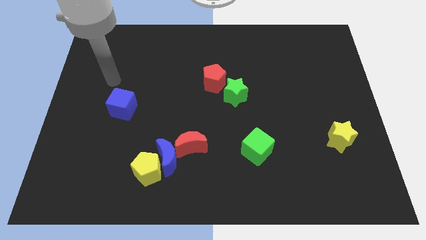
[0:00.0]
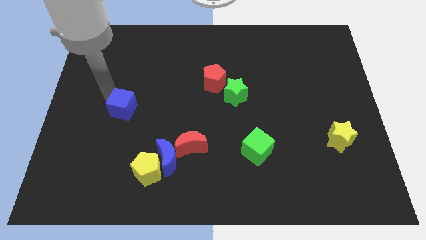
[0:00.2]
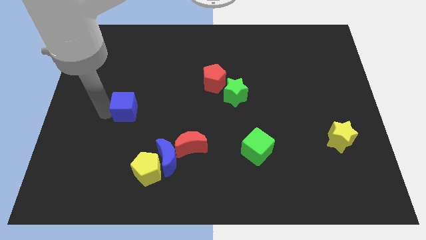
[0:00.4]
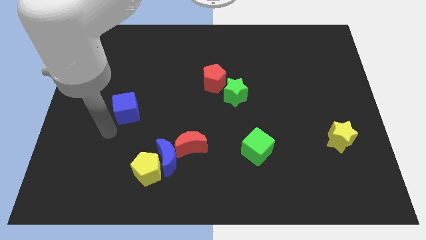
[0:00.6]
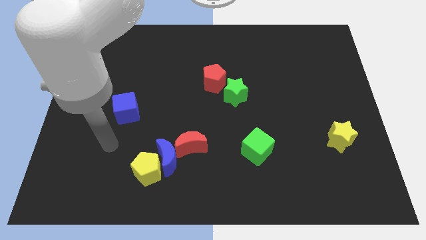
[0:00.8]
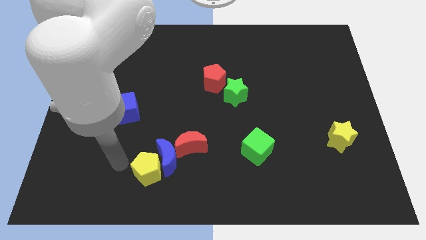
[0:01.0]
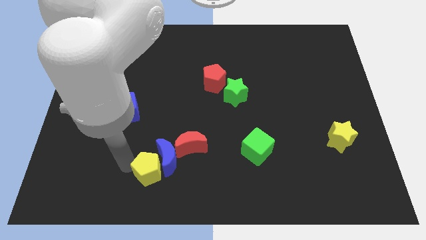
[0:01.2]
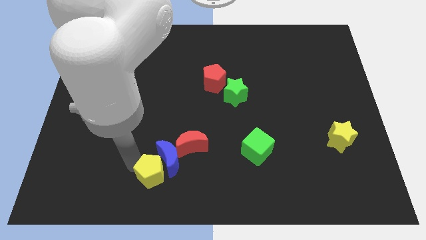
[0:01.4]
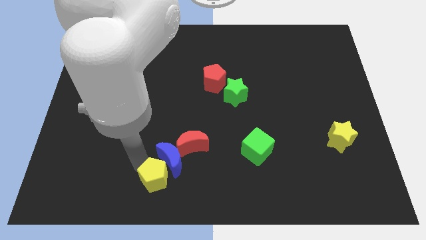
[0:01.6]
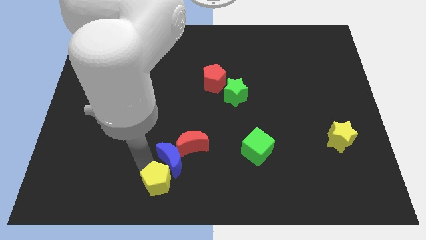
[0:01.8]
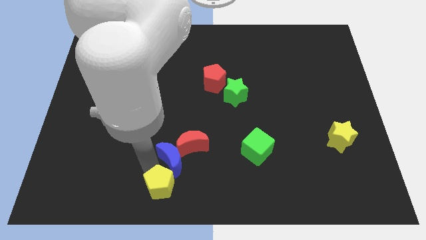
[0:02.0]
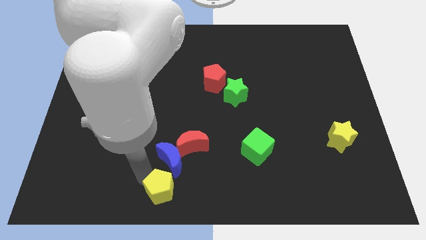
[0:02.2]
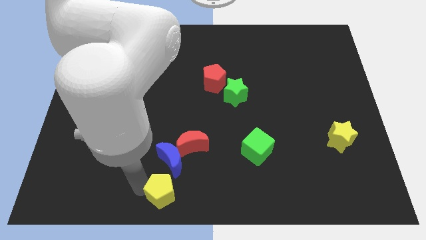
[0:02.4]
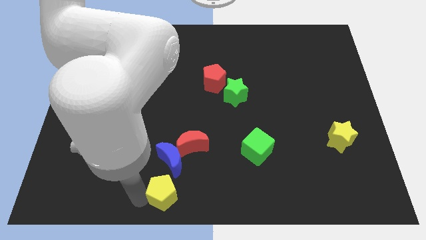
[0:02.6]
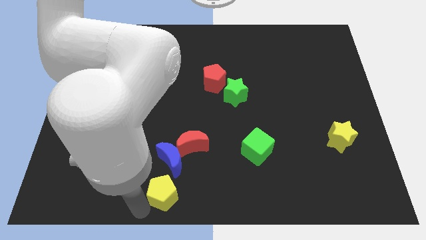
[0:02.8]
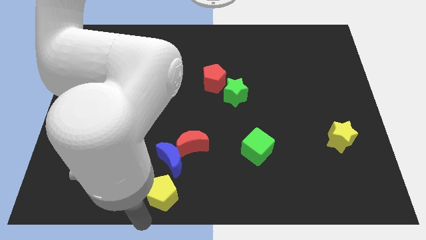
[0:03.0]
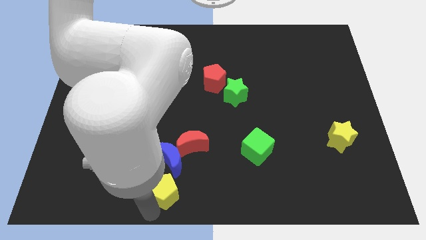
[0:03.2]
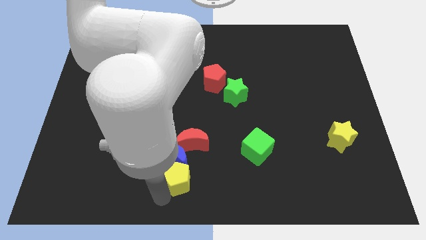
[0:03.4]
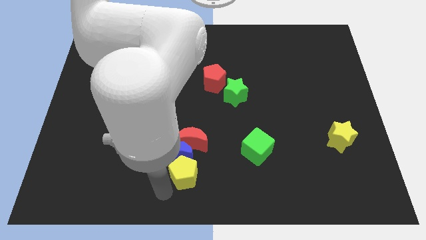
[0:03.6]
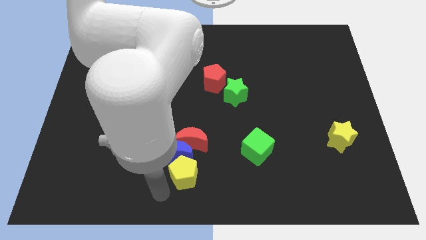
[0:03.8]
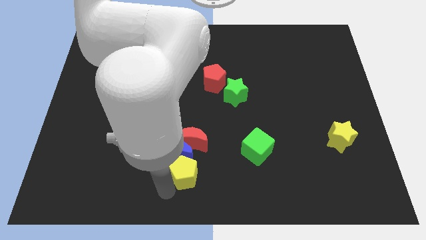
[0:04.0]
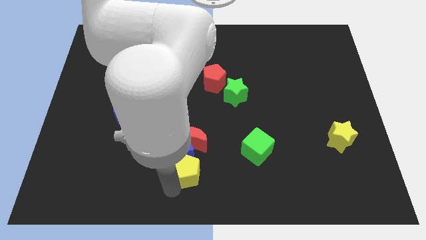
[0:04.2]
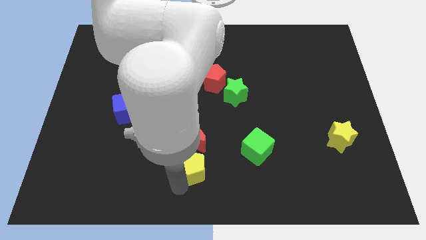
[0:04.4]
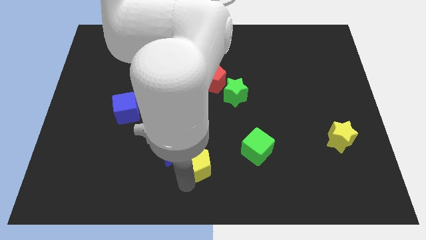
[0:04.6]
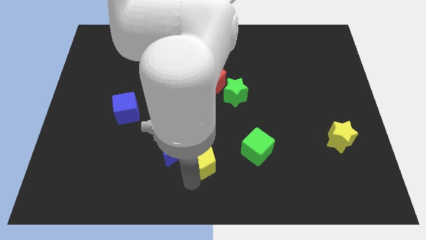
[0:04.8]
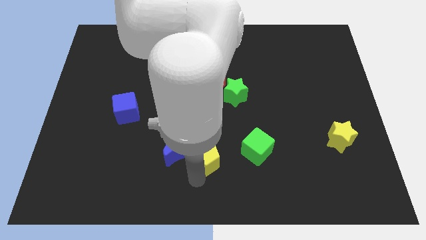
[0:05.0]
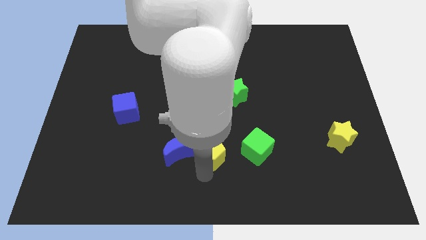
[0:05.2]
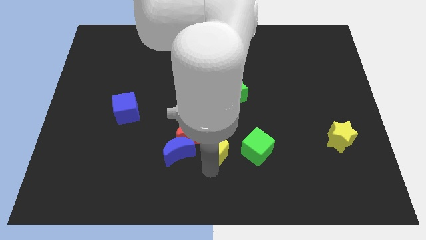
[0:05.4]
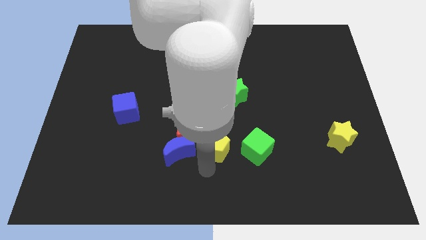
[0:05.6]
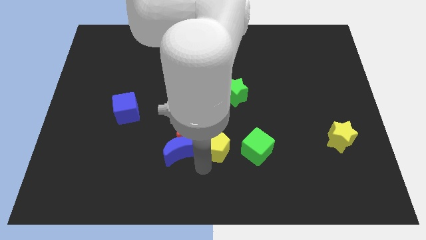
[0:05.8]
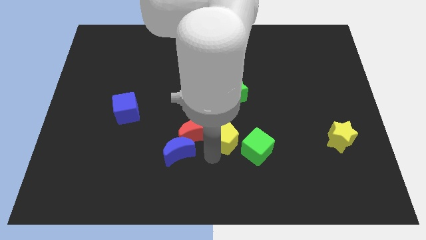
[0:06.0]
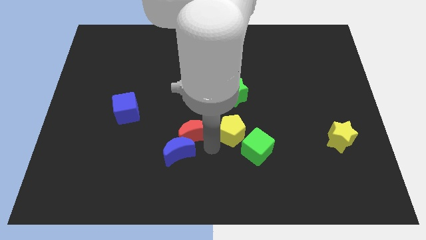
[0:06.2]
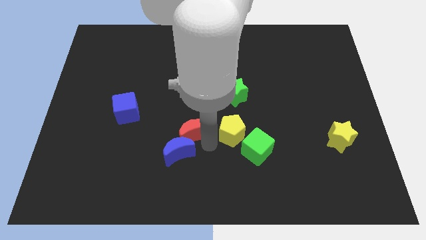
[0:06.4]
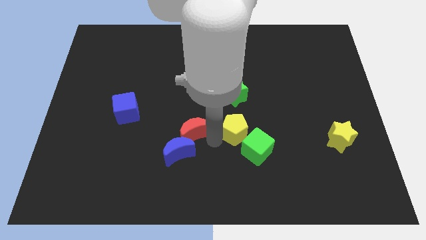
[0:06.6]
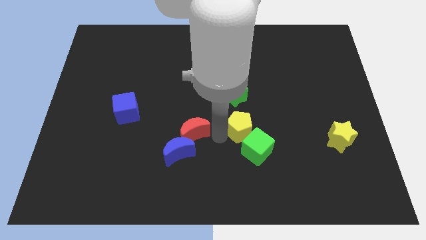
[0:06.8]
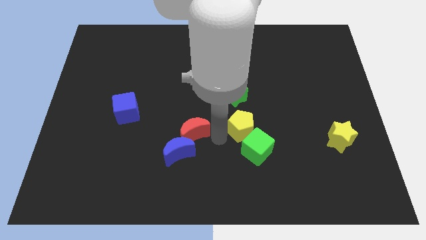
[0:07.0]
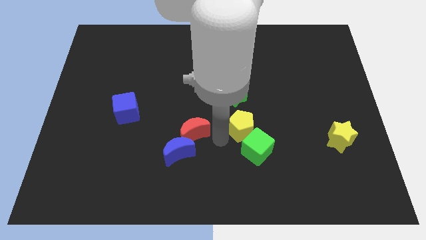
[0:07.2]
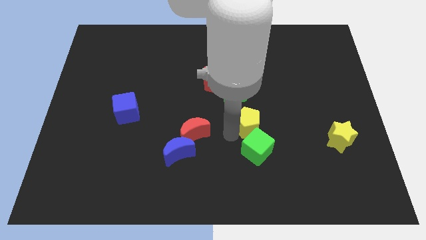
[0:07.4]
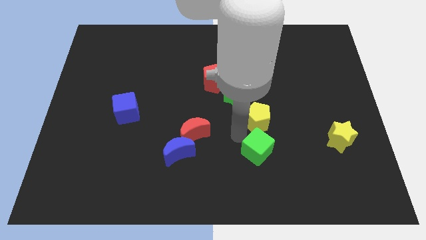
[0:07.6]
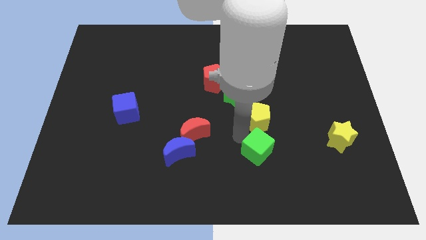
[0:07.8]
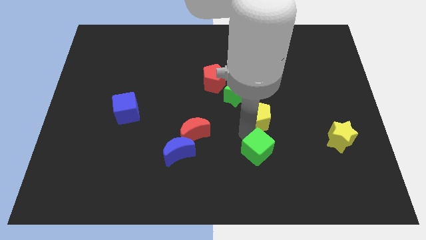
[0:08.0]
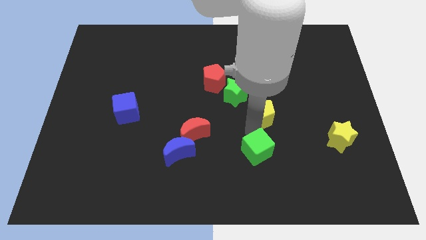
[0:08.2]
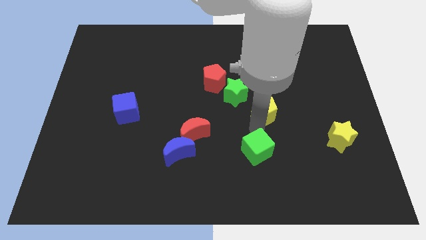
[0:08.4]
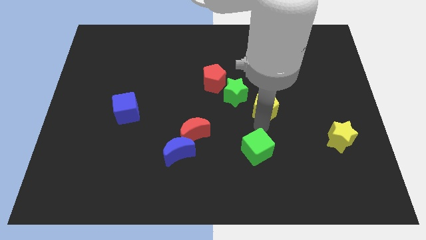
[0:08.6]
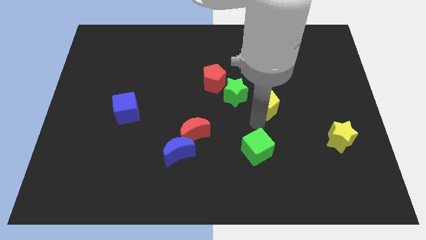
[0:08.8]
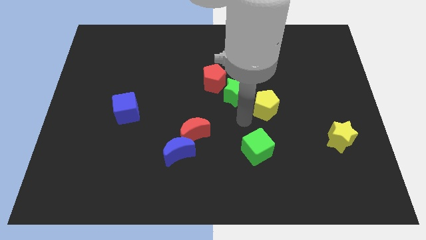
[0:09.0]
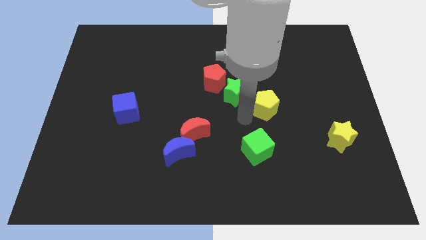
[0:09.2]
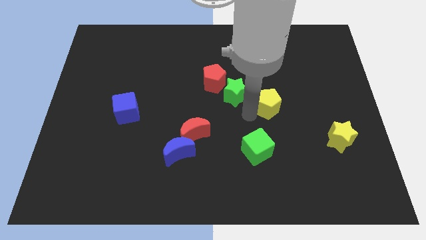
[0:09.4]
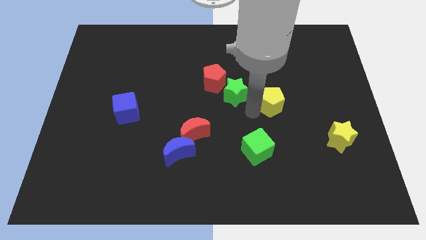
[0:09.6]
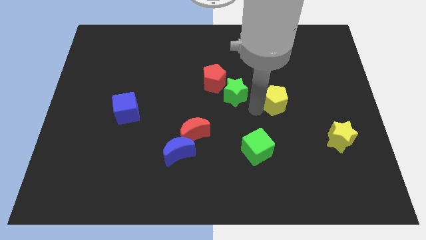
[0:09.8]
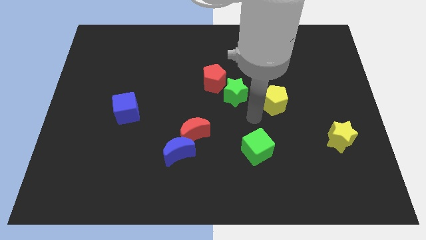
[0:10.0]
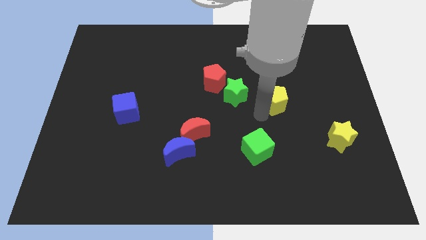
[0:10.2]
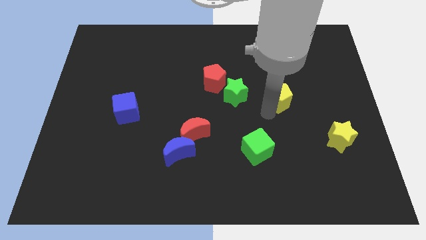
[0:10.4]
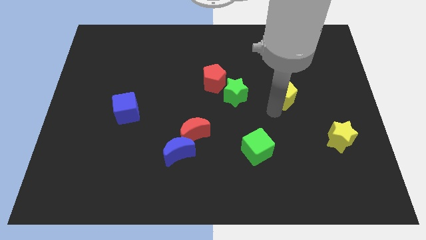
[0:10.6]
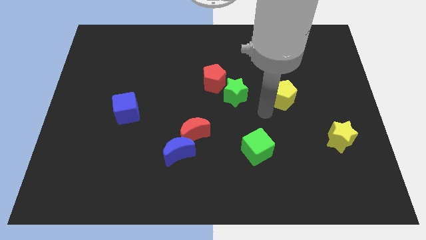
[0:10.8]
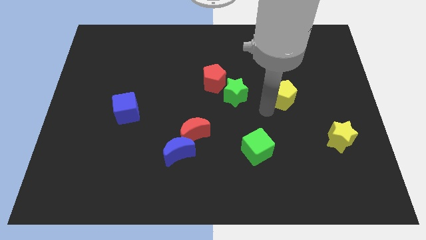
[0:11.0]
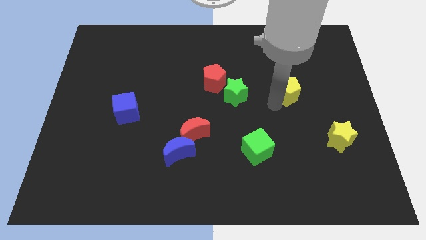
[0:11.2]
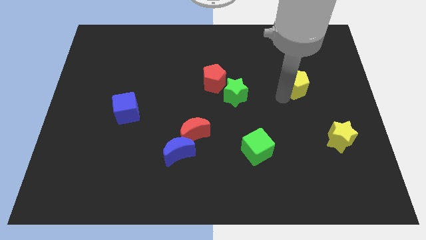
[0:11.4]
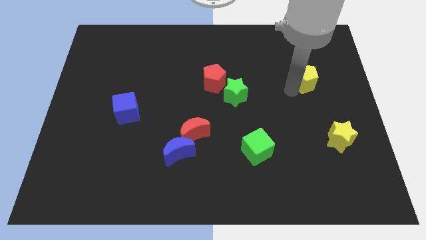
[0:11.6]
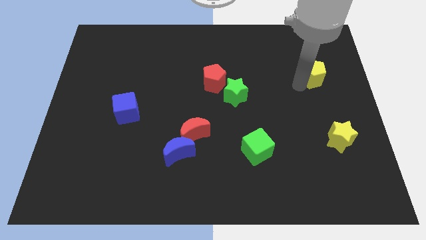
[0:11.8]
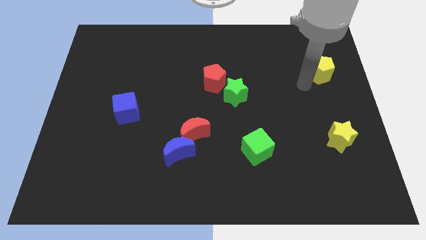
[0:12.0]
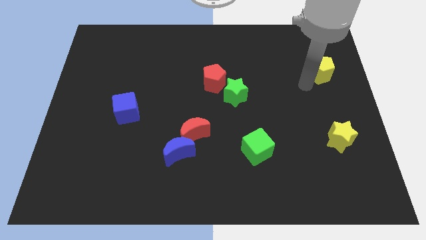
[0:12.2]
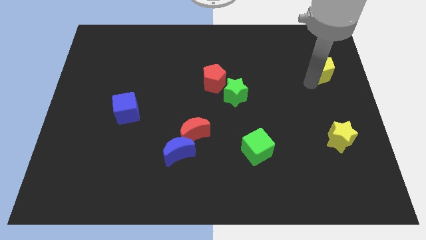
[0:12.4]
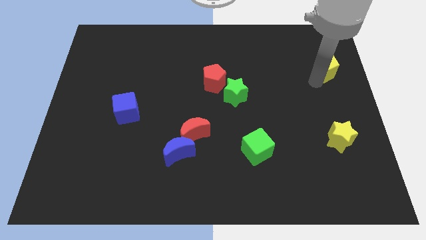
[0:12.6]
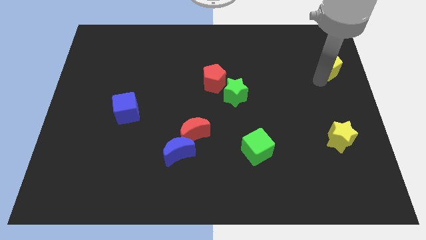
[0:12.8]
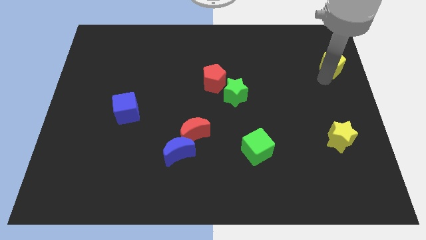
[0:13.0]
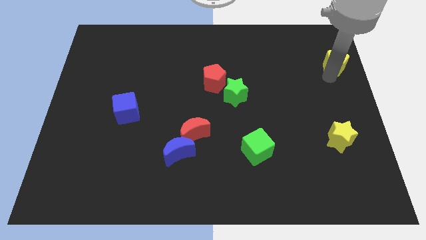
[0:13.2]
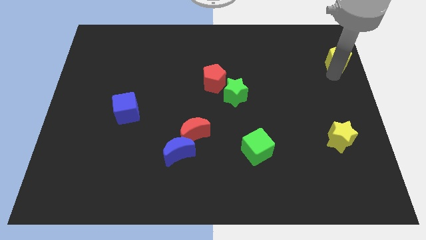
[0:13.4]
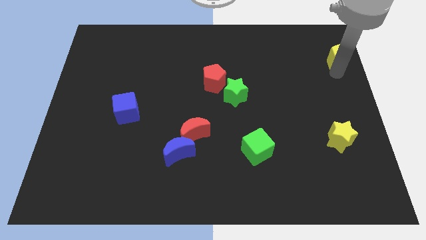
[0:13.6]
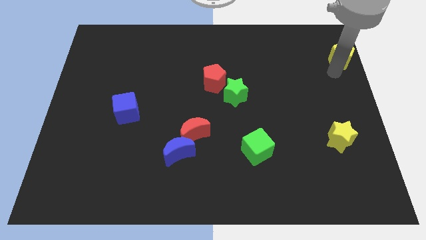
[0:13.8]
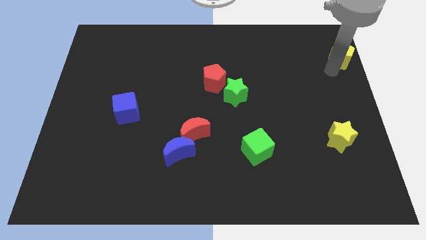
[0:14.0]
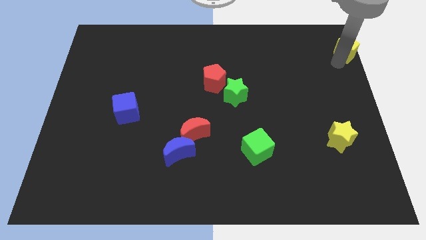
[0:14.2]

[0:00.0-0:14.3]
put the yellow pentagon to the upper right corner
